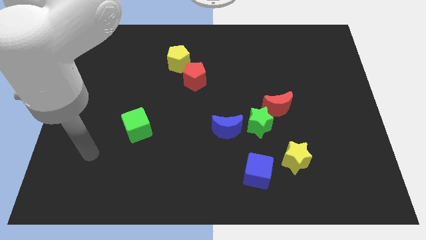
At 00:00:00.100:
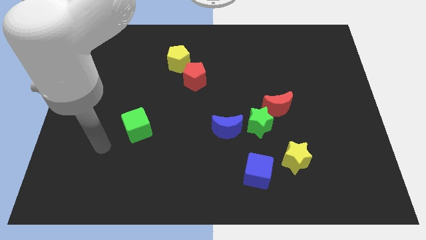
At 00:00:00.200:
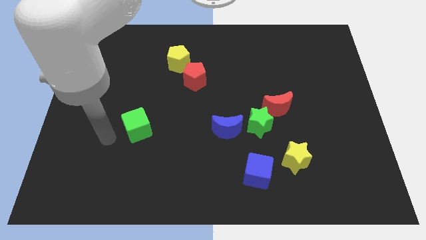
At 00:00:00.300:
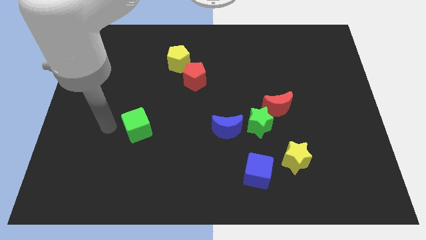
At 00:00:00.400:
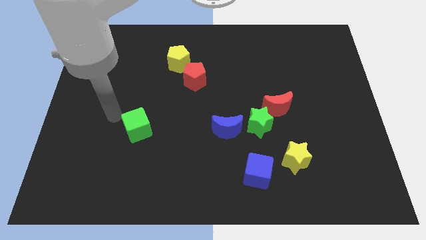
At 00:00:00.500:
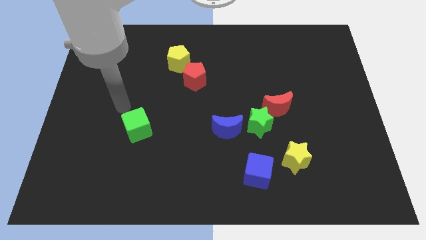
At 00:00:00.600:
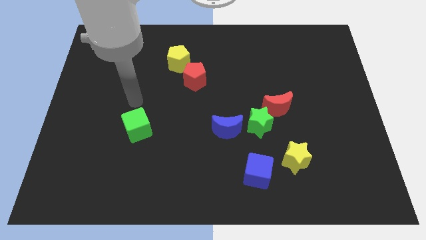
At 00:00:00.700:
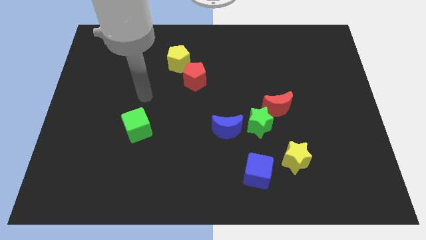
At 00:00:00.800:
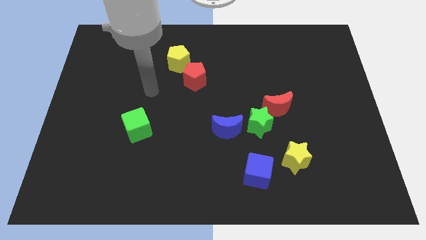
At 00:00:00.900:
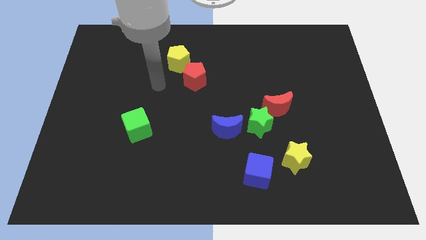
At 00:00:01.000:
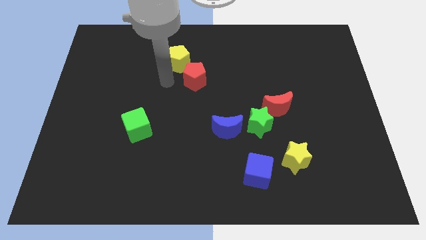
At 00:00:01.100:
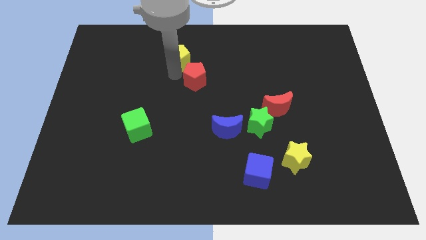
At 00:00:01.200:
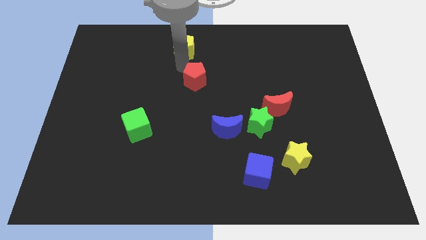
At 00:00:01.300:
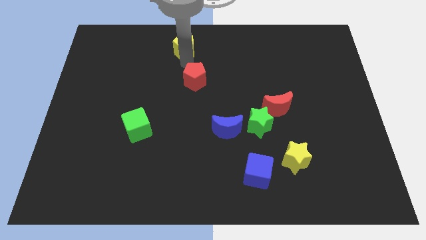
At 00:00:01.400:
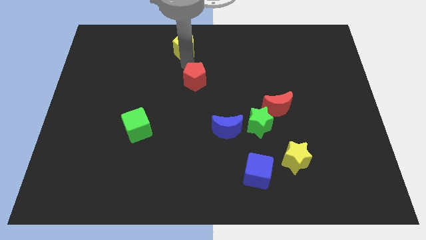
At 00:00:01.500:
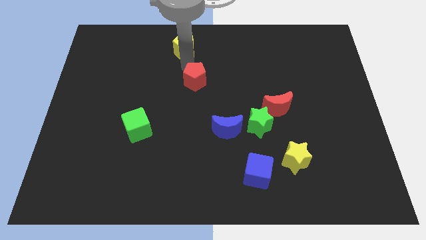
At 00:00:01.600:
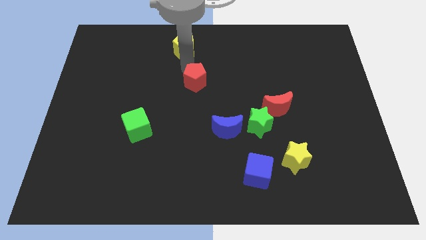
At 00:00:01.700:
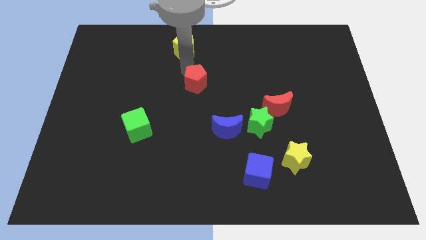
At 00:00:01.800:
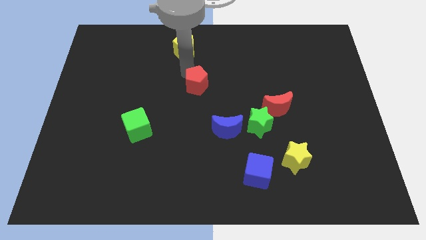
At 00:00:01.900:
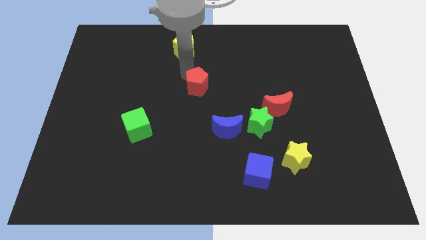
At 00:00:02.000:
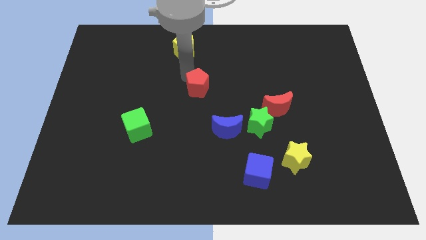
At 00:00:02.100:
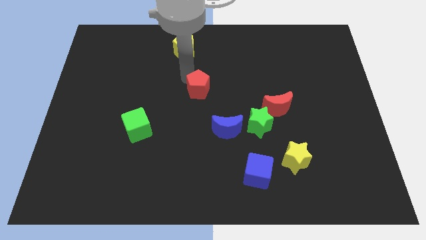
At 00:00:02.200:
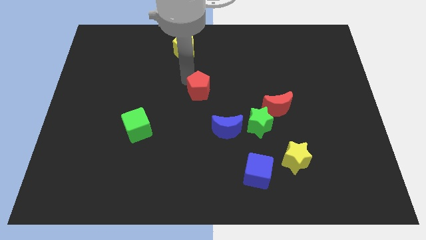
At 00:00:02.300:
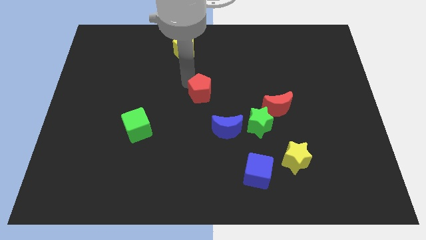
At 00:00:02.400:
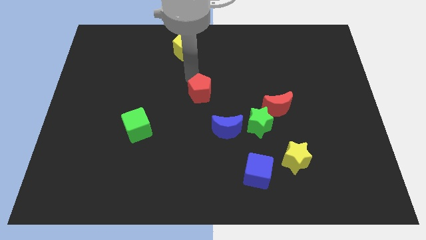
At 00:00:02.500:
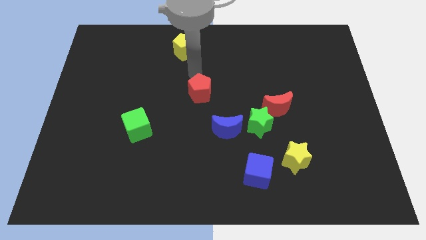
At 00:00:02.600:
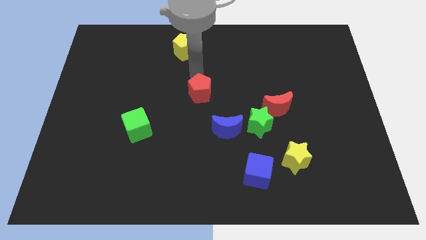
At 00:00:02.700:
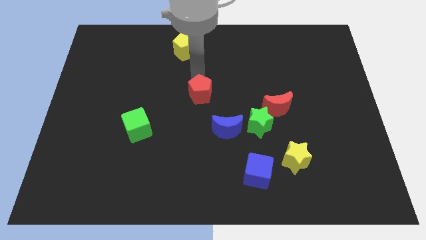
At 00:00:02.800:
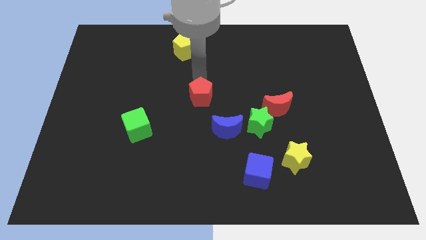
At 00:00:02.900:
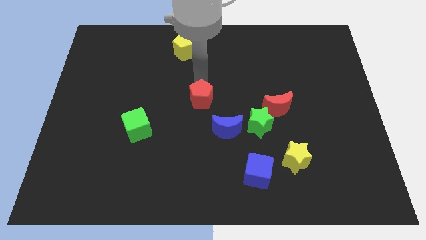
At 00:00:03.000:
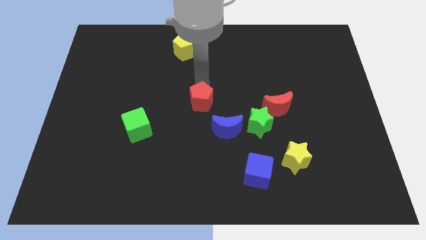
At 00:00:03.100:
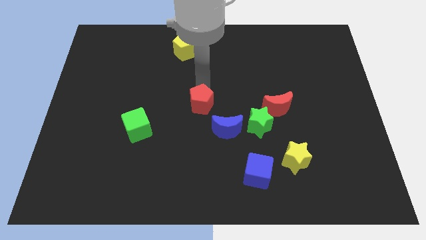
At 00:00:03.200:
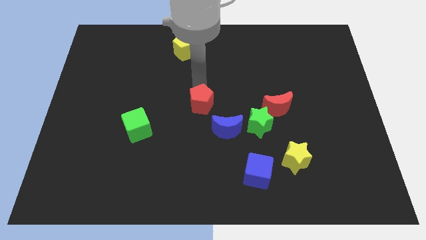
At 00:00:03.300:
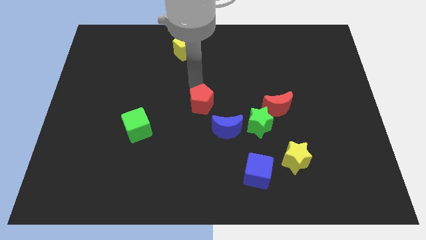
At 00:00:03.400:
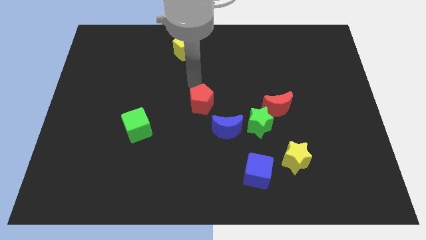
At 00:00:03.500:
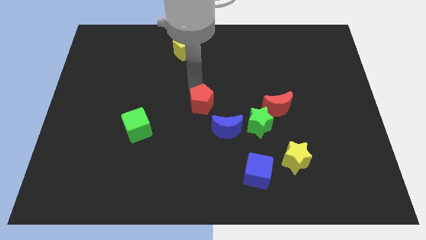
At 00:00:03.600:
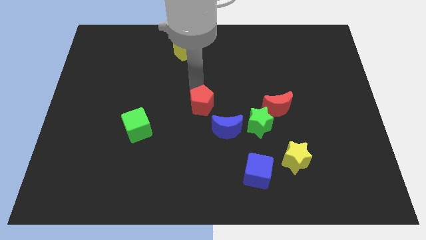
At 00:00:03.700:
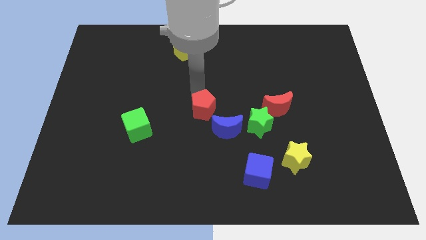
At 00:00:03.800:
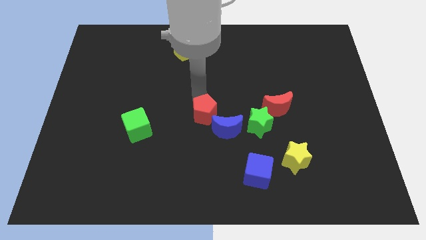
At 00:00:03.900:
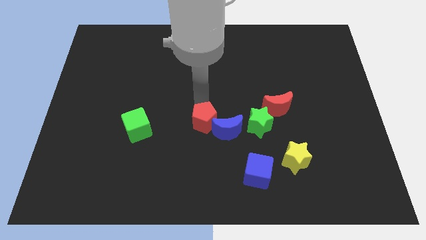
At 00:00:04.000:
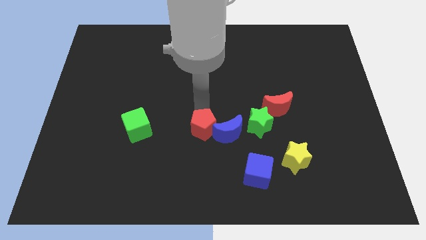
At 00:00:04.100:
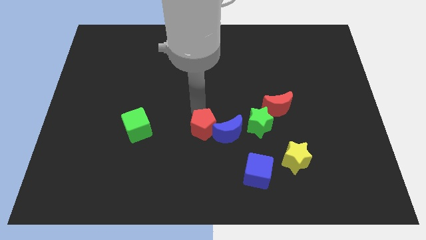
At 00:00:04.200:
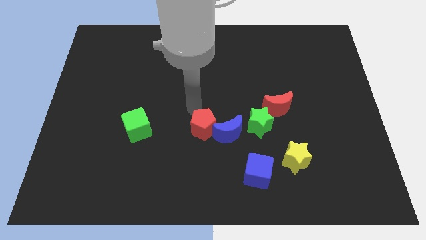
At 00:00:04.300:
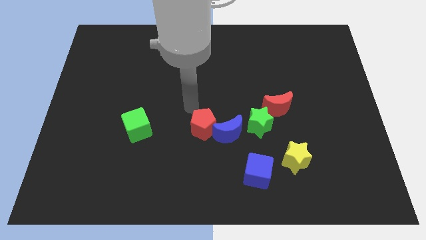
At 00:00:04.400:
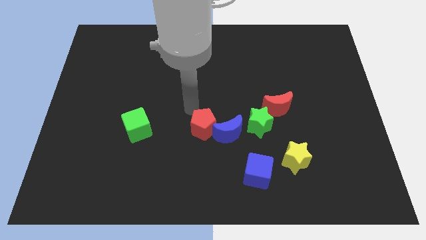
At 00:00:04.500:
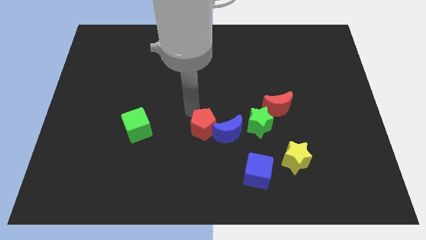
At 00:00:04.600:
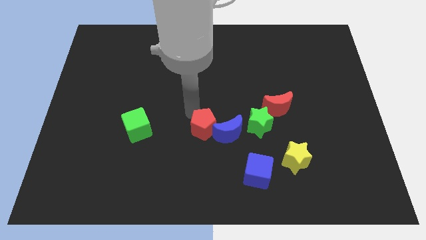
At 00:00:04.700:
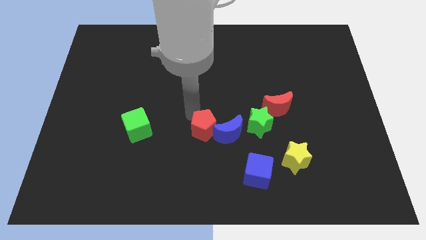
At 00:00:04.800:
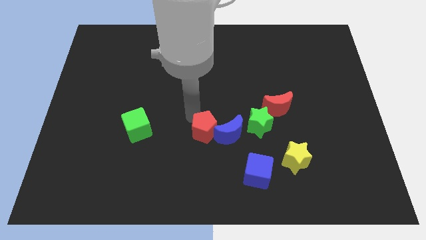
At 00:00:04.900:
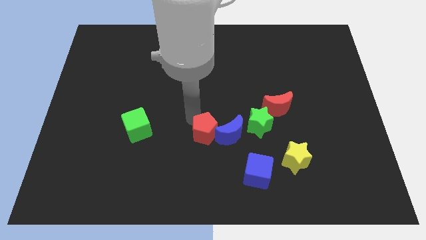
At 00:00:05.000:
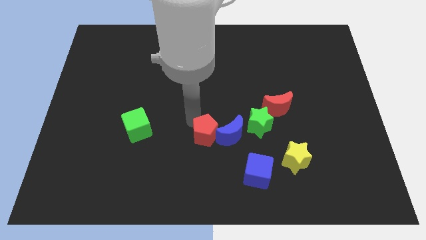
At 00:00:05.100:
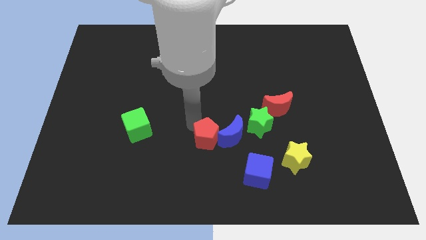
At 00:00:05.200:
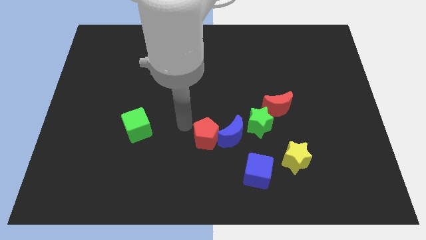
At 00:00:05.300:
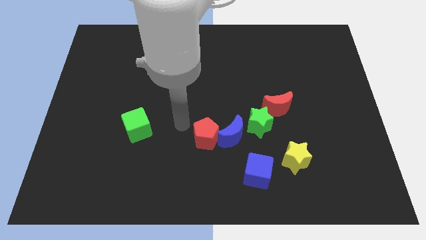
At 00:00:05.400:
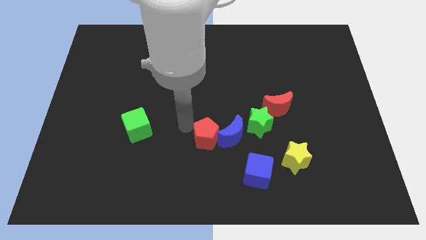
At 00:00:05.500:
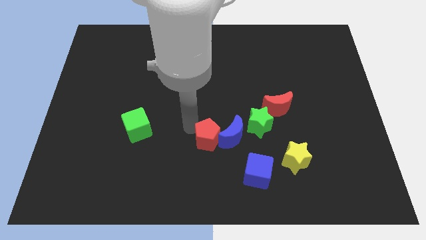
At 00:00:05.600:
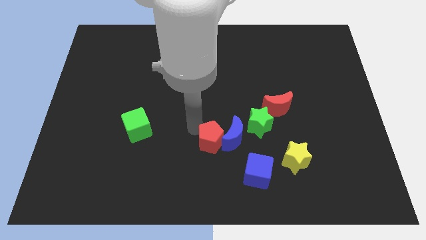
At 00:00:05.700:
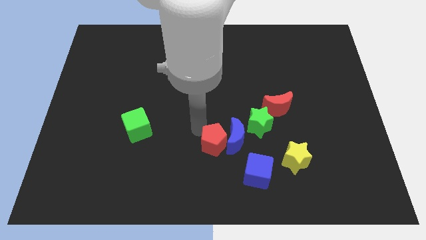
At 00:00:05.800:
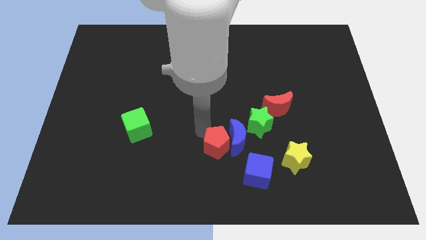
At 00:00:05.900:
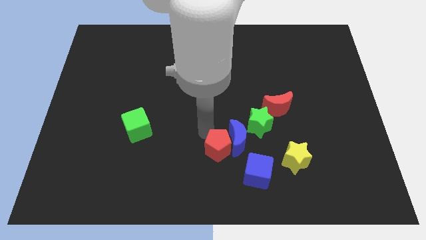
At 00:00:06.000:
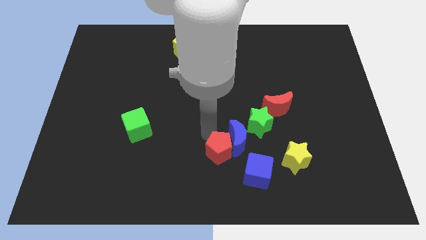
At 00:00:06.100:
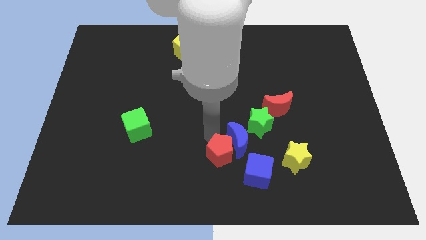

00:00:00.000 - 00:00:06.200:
put the red pentagon left of the yellow star

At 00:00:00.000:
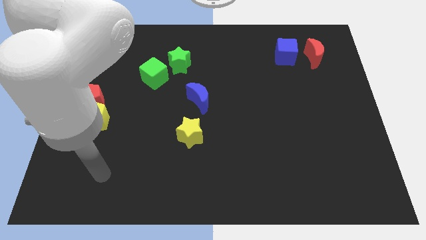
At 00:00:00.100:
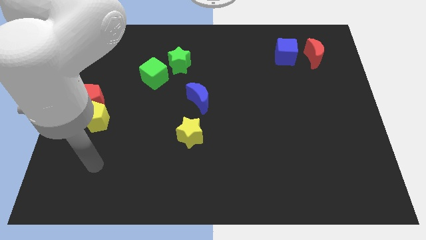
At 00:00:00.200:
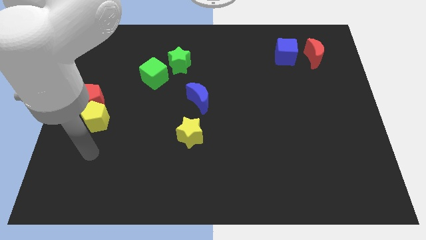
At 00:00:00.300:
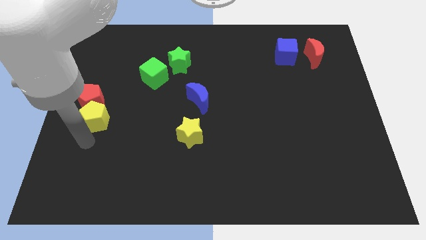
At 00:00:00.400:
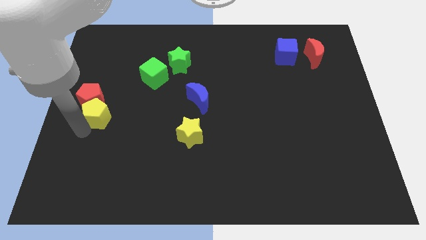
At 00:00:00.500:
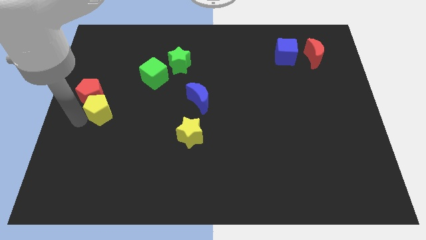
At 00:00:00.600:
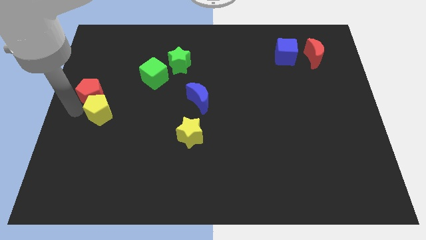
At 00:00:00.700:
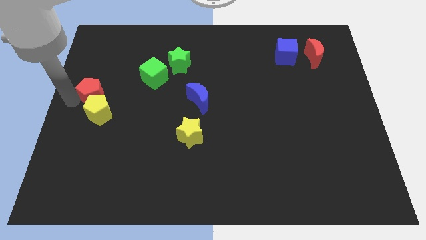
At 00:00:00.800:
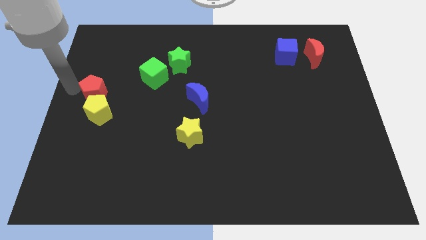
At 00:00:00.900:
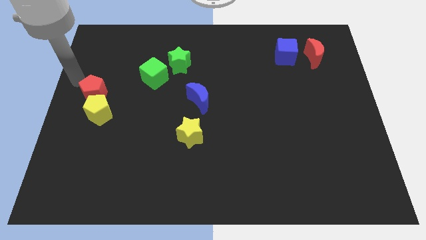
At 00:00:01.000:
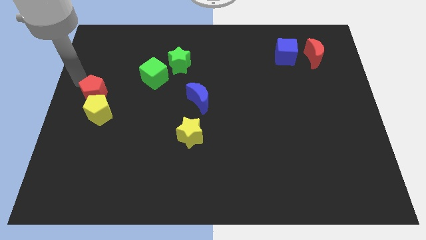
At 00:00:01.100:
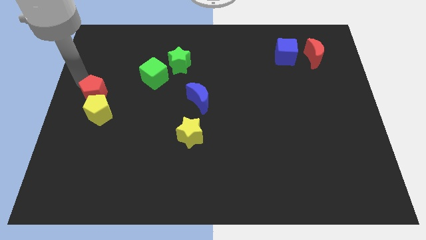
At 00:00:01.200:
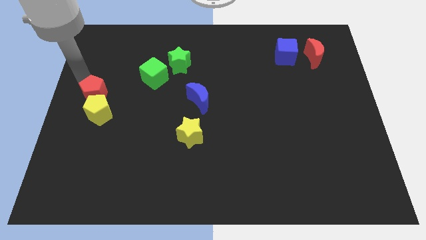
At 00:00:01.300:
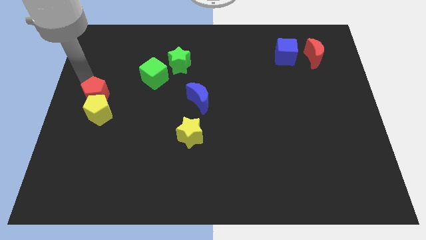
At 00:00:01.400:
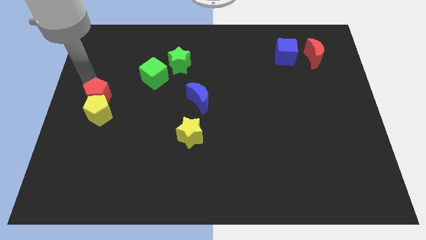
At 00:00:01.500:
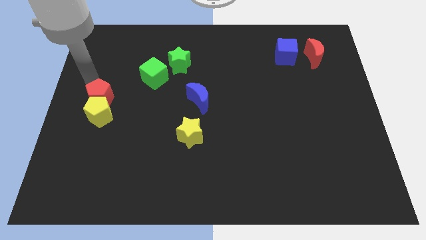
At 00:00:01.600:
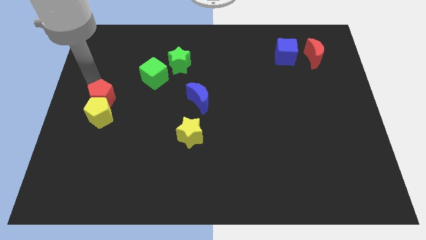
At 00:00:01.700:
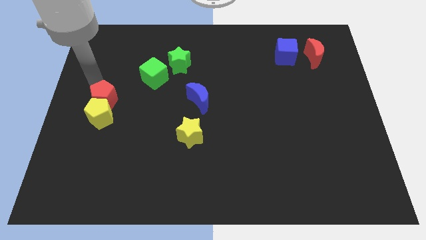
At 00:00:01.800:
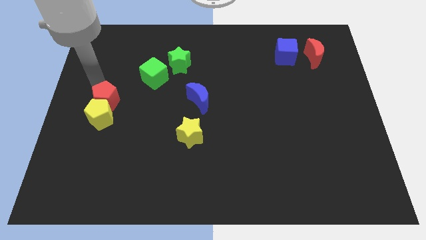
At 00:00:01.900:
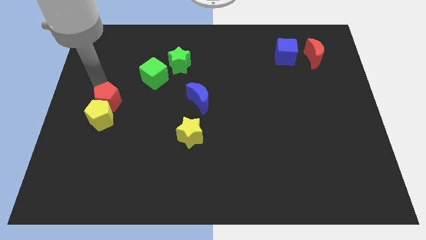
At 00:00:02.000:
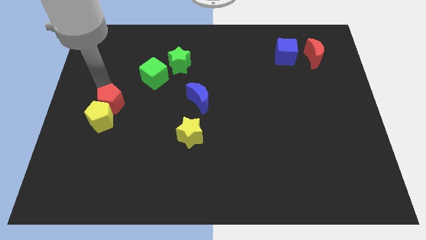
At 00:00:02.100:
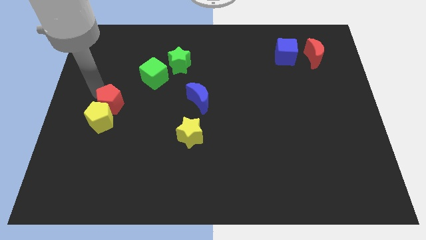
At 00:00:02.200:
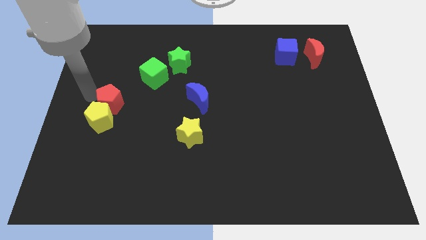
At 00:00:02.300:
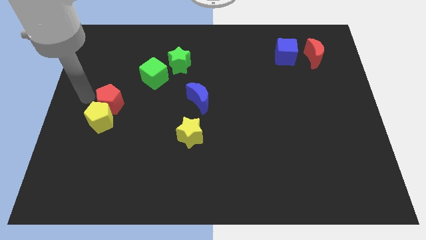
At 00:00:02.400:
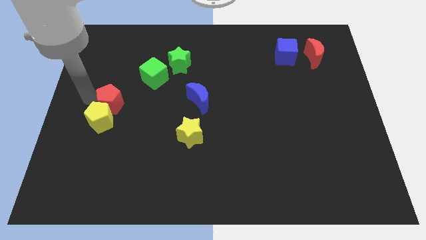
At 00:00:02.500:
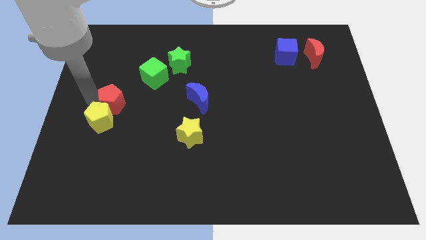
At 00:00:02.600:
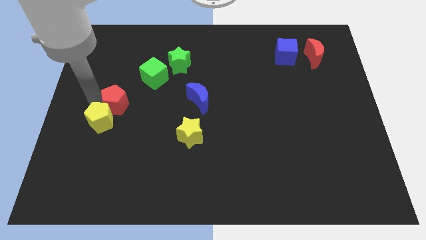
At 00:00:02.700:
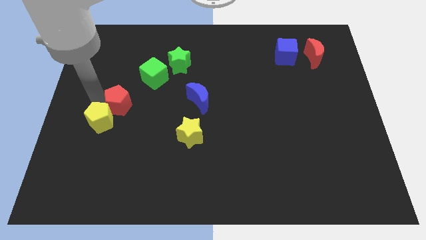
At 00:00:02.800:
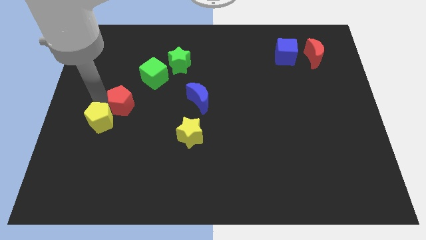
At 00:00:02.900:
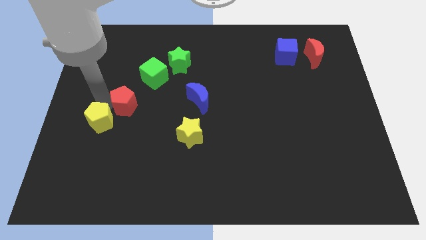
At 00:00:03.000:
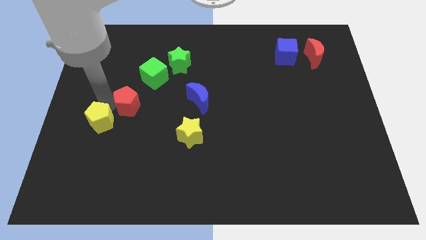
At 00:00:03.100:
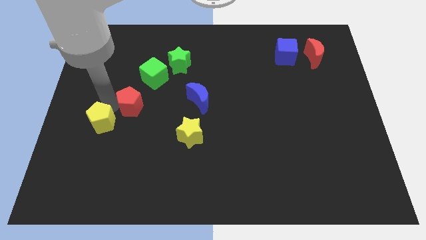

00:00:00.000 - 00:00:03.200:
put the red pentagon to the bottom side of the green cube
